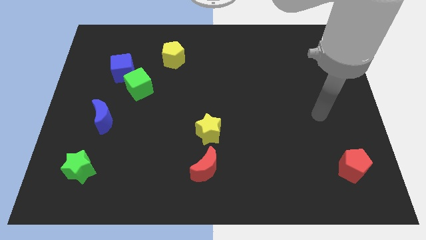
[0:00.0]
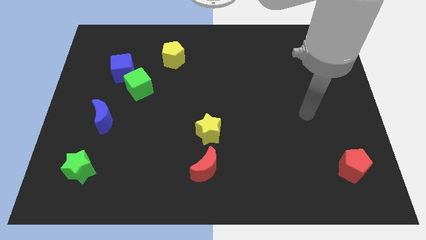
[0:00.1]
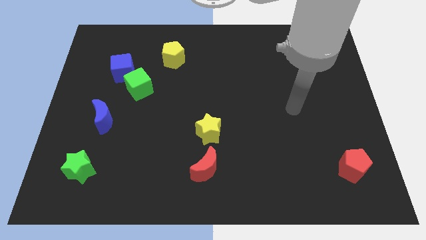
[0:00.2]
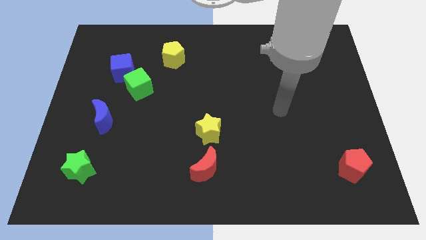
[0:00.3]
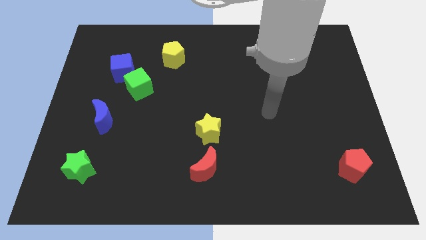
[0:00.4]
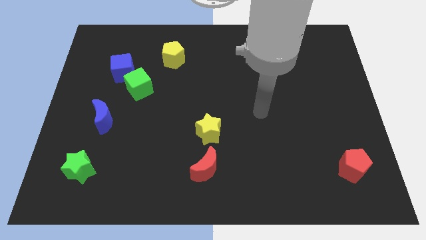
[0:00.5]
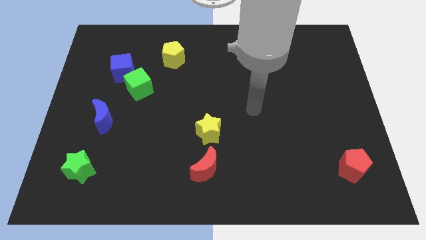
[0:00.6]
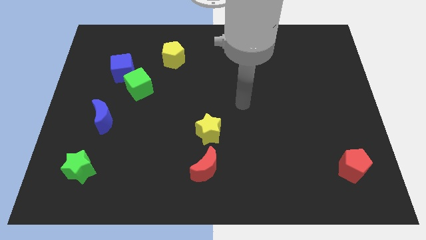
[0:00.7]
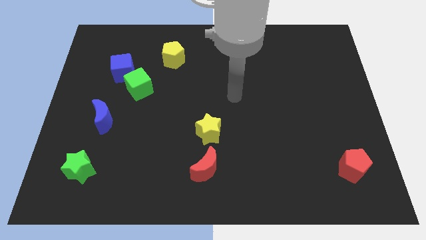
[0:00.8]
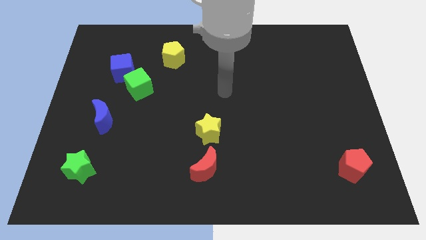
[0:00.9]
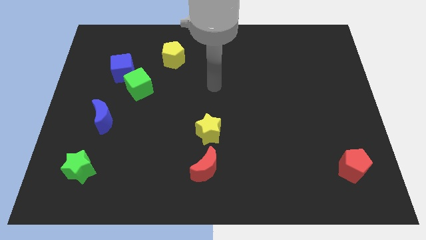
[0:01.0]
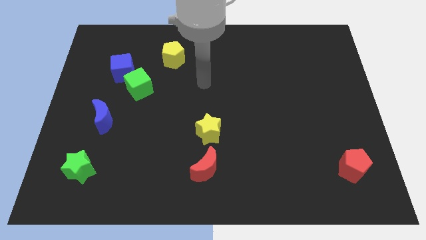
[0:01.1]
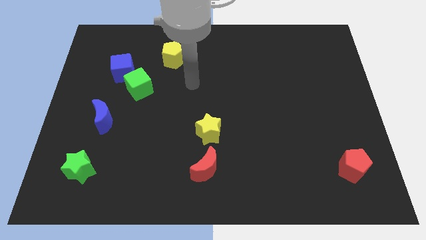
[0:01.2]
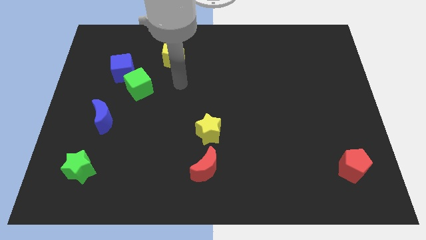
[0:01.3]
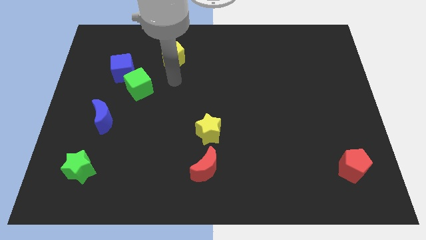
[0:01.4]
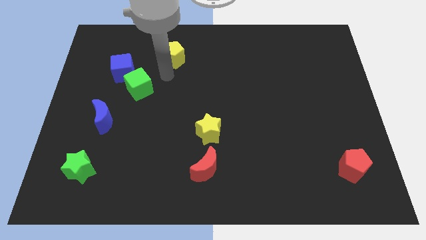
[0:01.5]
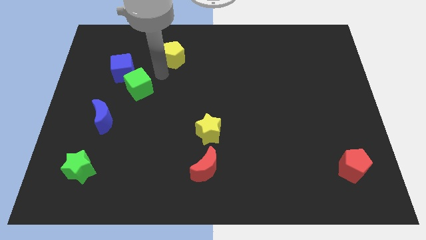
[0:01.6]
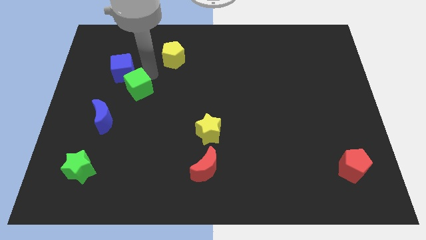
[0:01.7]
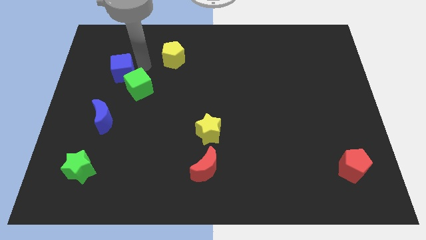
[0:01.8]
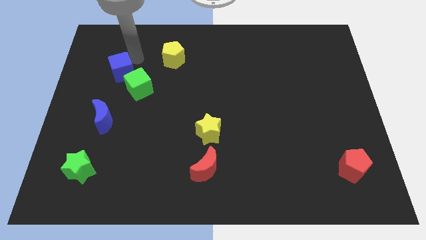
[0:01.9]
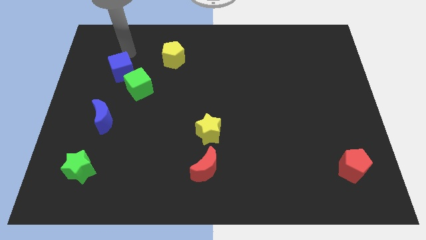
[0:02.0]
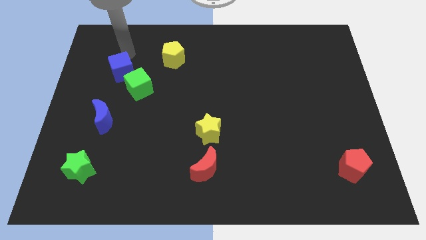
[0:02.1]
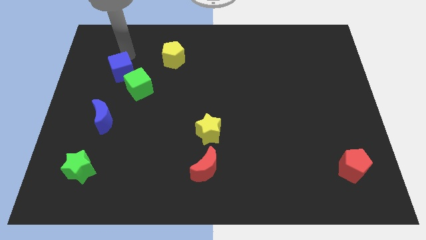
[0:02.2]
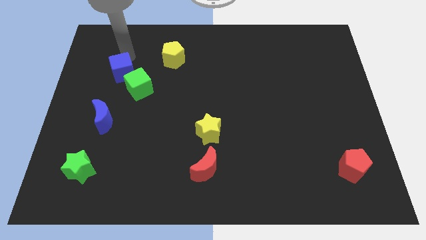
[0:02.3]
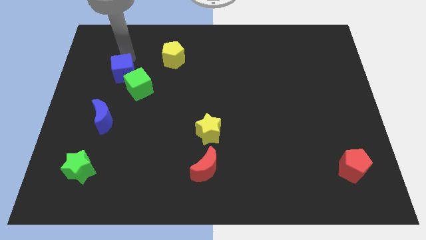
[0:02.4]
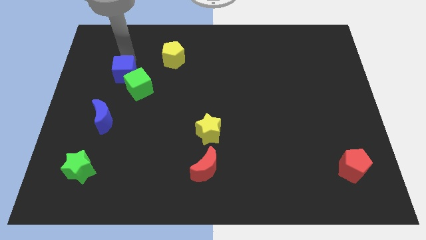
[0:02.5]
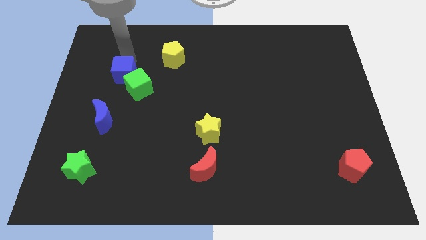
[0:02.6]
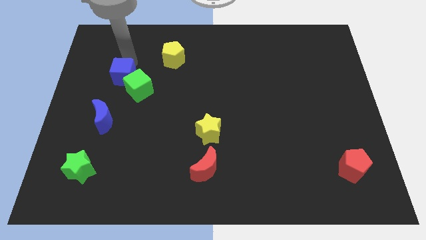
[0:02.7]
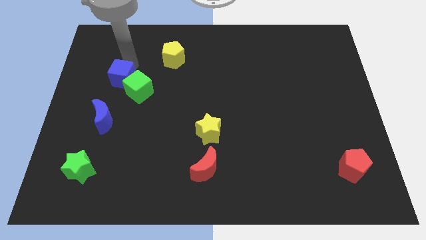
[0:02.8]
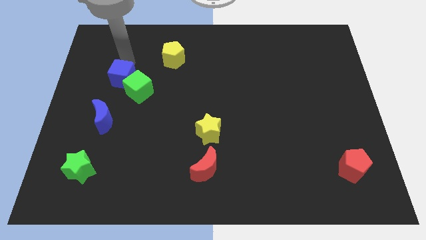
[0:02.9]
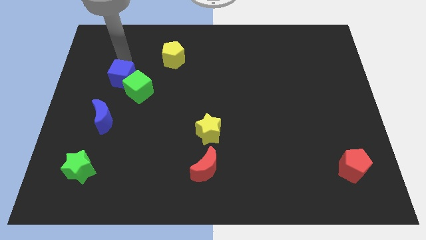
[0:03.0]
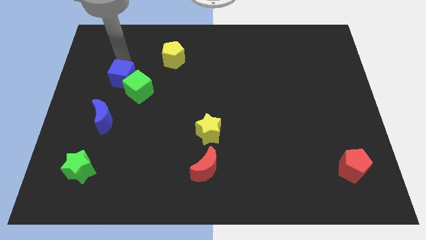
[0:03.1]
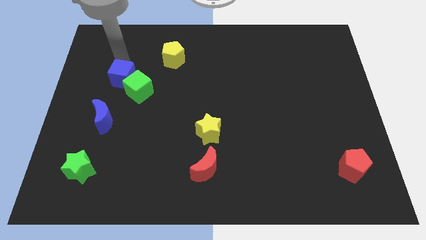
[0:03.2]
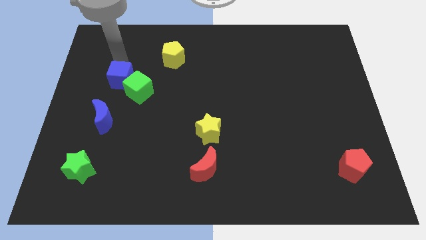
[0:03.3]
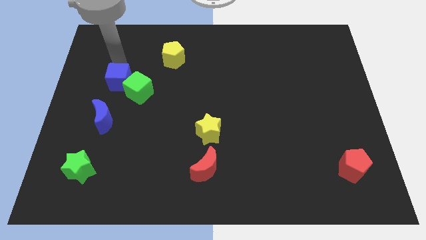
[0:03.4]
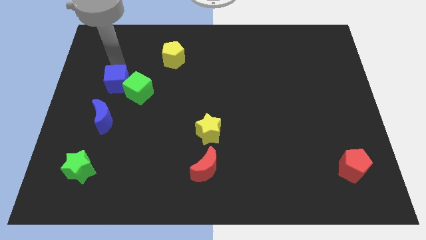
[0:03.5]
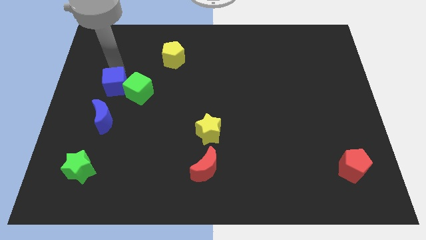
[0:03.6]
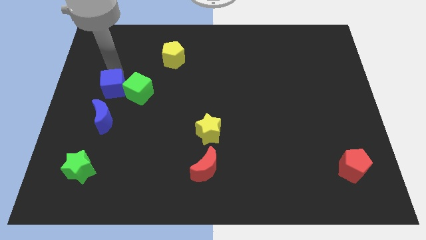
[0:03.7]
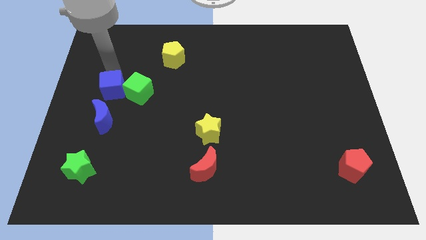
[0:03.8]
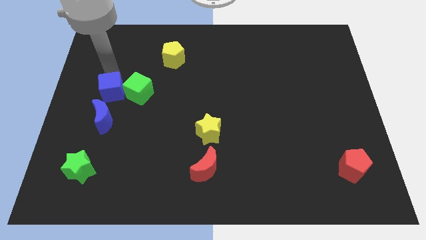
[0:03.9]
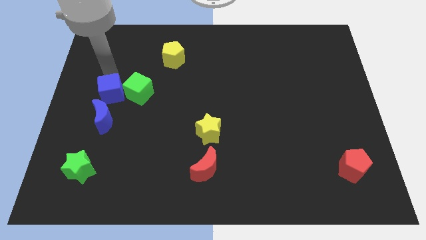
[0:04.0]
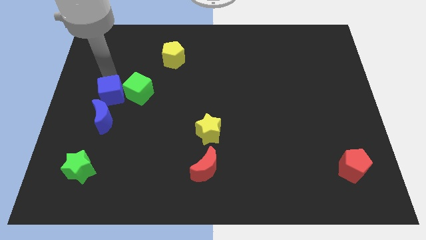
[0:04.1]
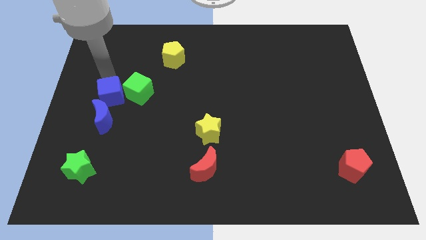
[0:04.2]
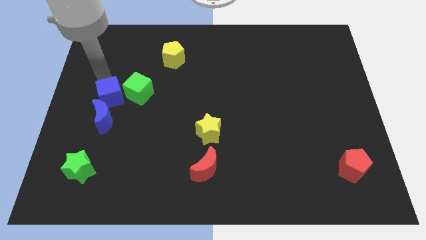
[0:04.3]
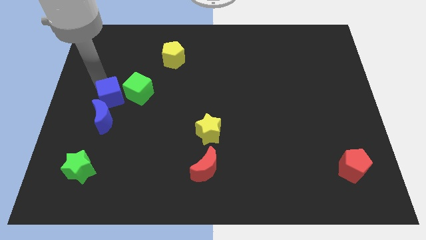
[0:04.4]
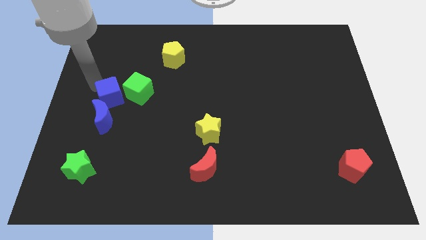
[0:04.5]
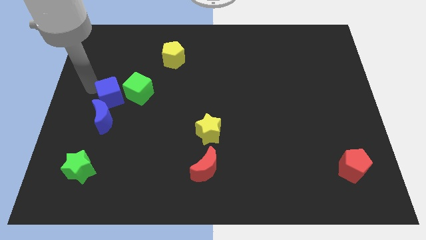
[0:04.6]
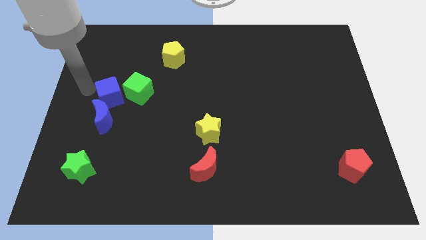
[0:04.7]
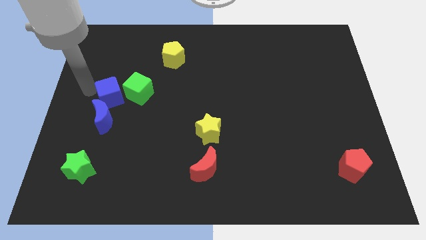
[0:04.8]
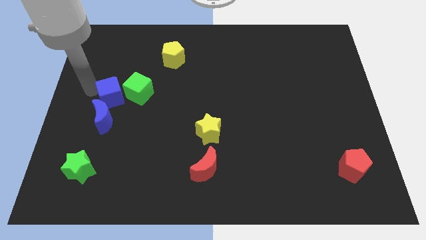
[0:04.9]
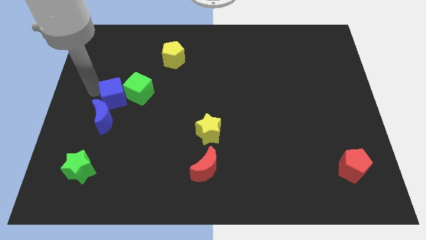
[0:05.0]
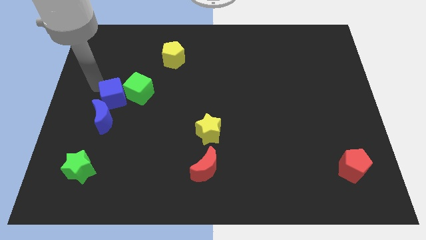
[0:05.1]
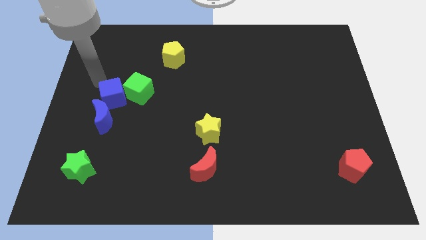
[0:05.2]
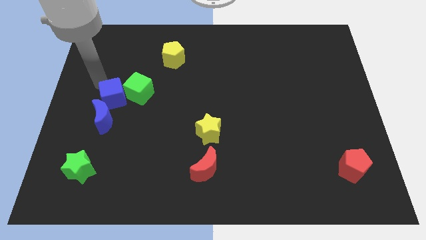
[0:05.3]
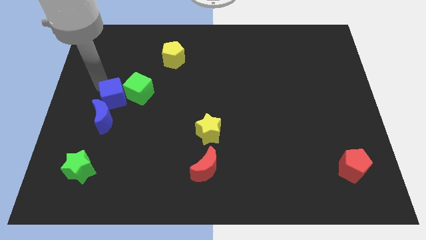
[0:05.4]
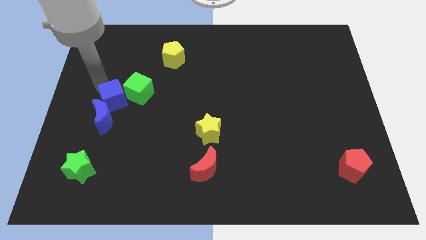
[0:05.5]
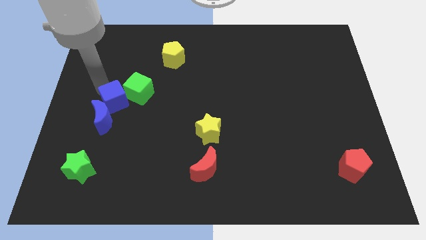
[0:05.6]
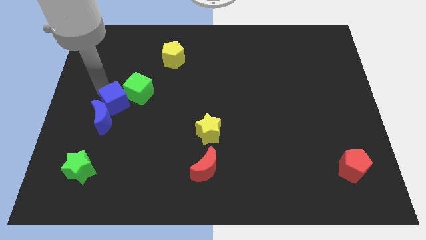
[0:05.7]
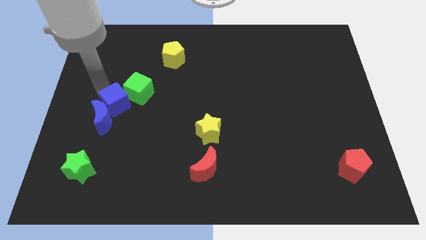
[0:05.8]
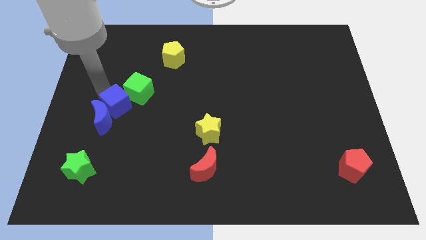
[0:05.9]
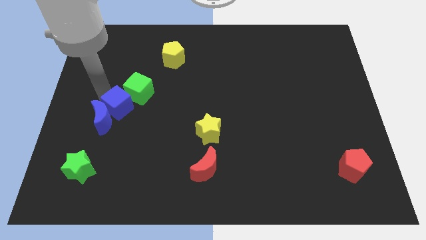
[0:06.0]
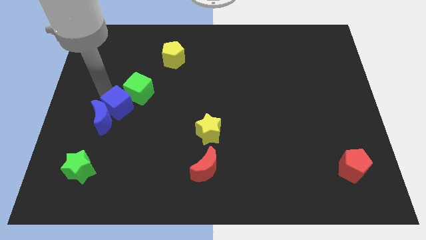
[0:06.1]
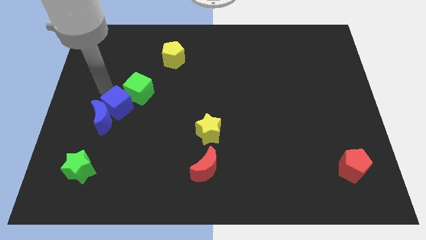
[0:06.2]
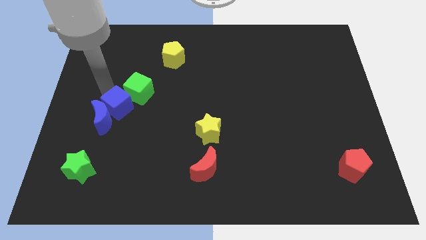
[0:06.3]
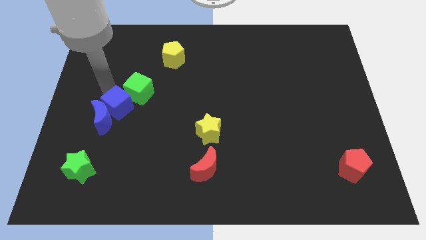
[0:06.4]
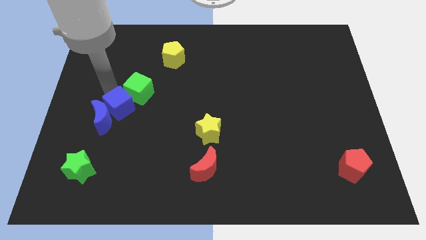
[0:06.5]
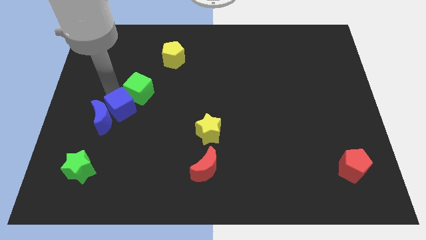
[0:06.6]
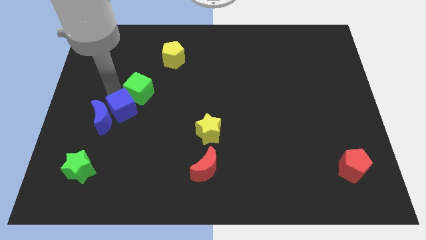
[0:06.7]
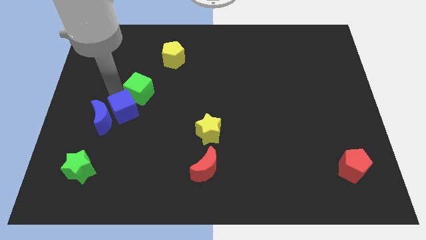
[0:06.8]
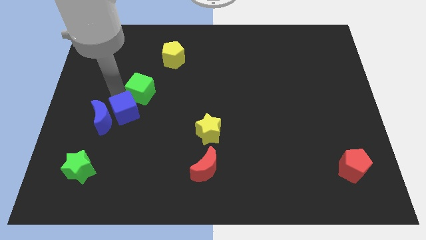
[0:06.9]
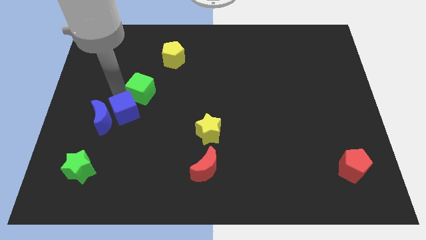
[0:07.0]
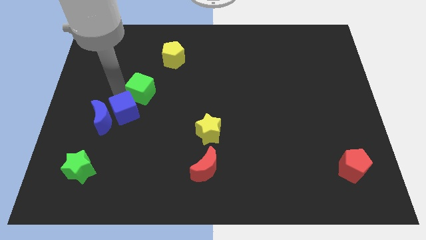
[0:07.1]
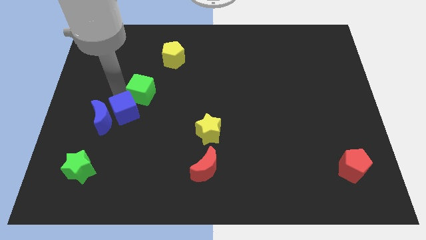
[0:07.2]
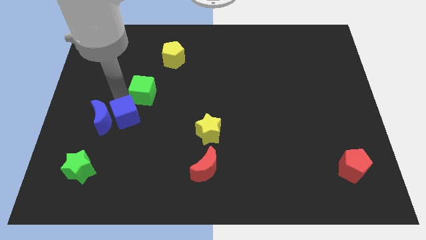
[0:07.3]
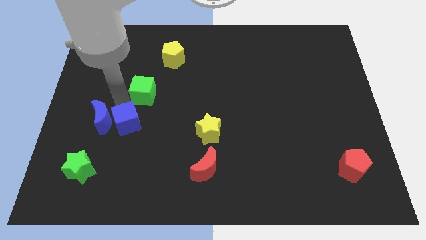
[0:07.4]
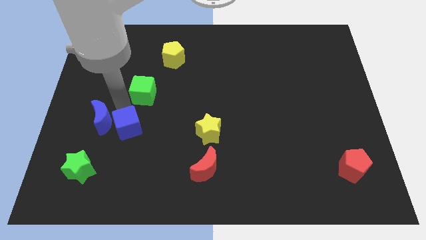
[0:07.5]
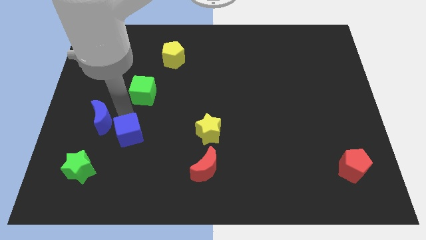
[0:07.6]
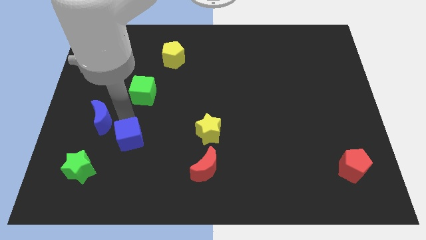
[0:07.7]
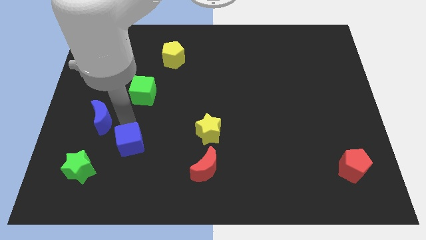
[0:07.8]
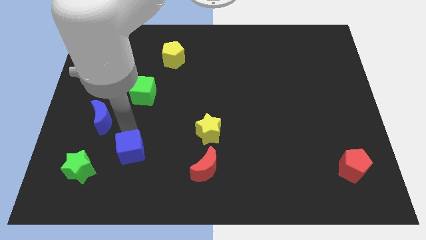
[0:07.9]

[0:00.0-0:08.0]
slide the blue cube right of the green star
